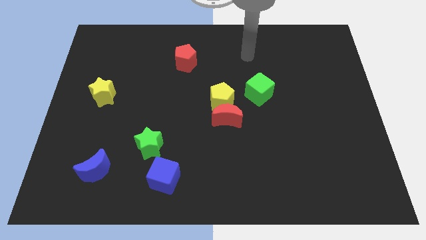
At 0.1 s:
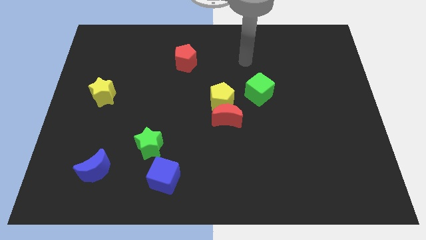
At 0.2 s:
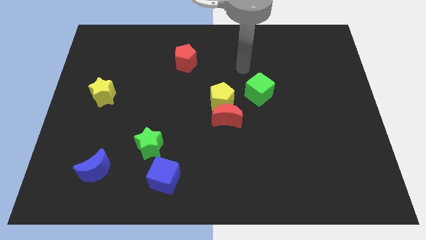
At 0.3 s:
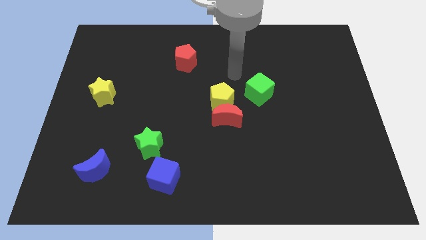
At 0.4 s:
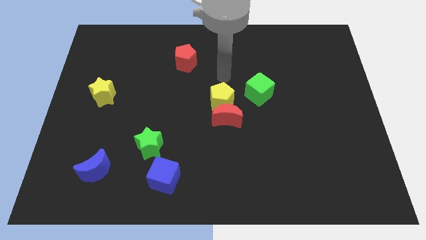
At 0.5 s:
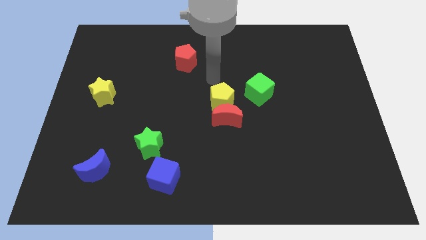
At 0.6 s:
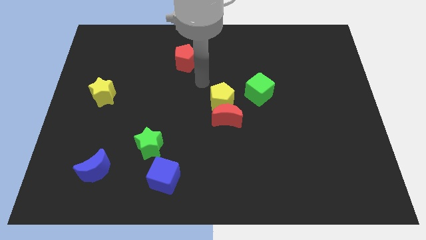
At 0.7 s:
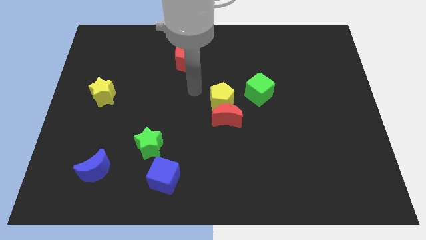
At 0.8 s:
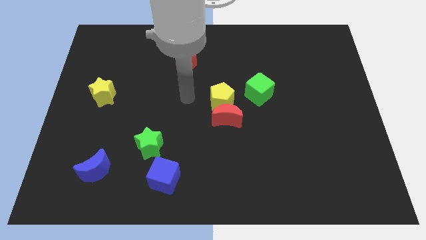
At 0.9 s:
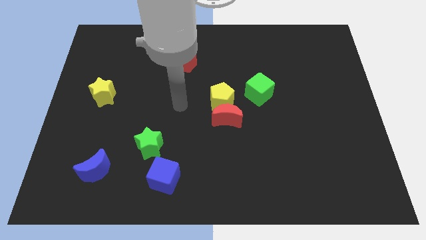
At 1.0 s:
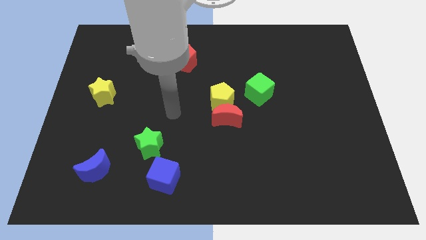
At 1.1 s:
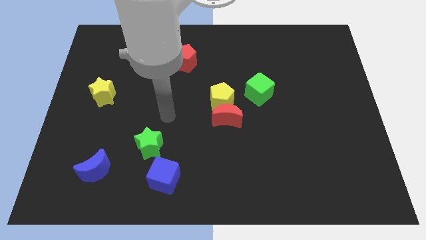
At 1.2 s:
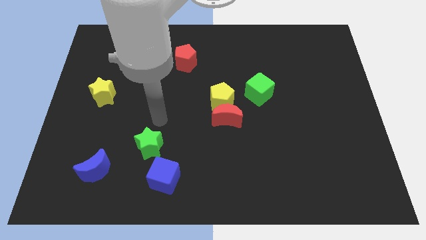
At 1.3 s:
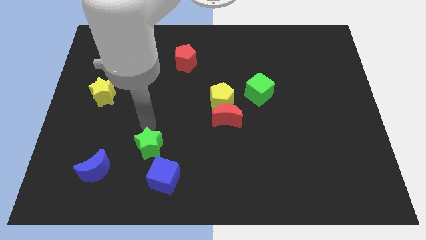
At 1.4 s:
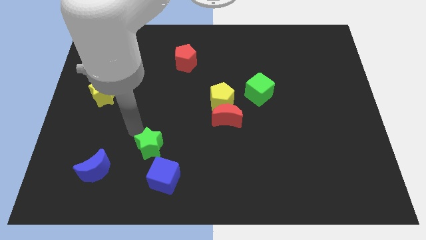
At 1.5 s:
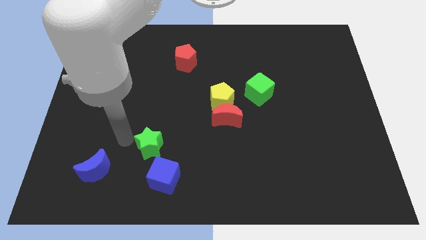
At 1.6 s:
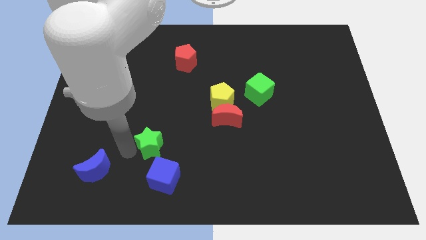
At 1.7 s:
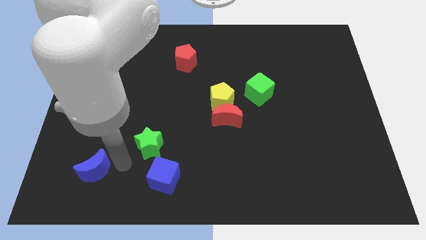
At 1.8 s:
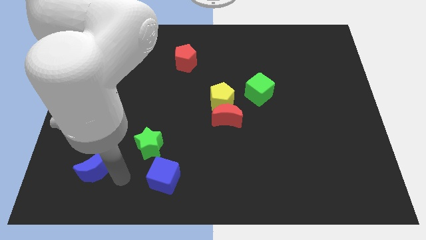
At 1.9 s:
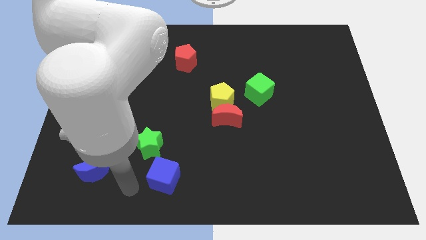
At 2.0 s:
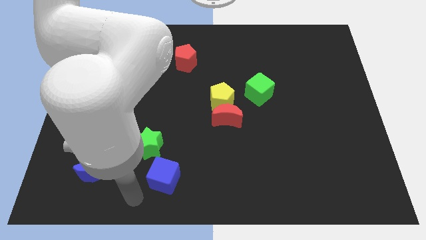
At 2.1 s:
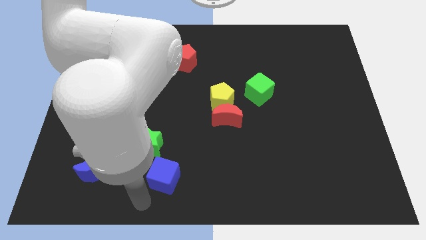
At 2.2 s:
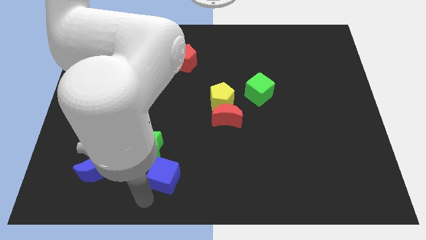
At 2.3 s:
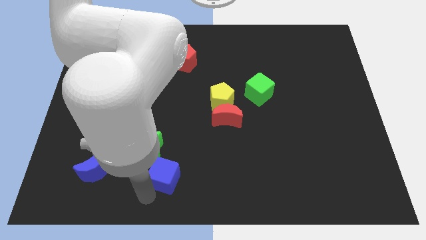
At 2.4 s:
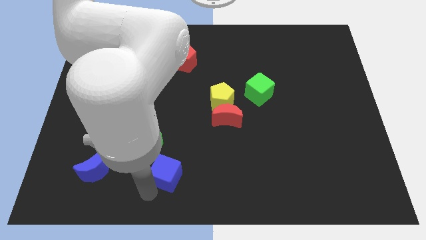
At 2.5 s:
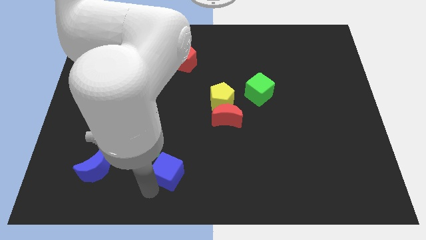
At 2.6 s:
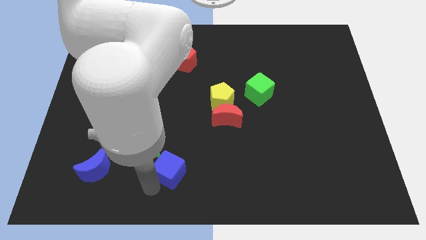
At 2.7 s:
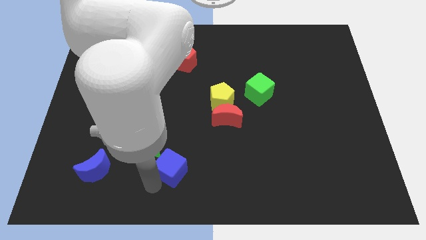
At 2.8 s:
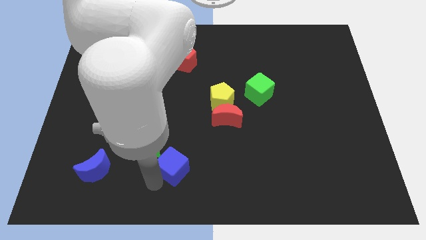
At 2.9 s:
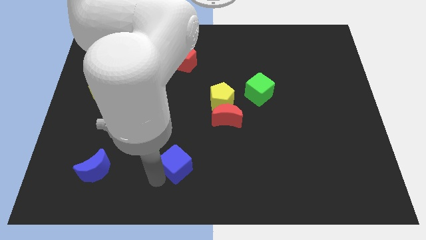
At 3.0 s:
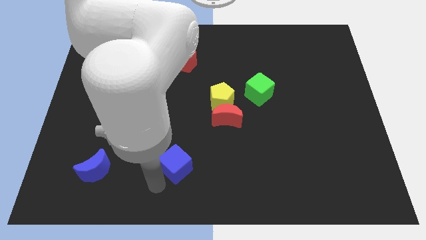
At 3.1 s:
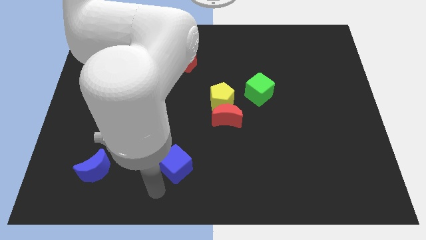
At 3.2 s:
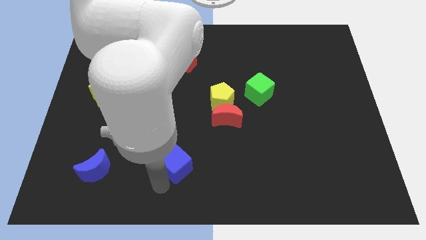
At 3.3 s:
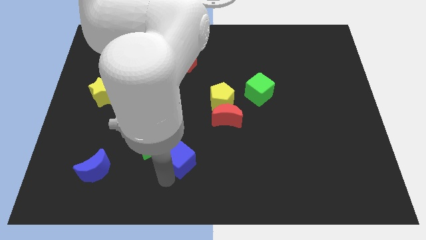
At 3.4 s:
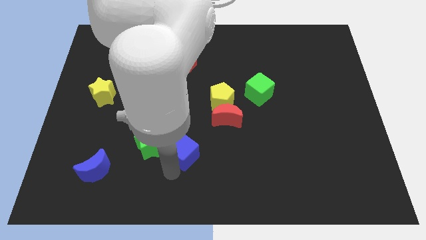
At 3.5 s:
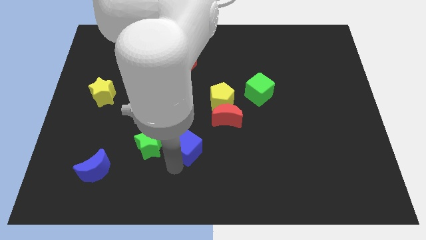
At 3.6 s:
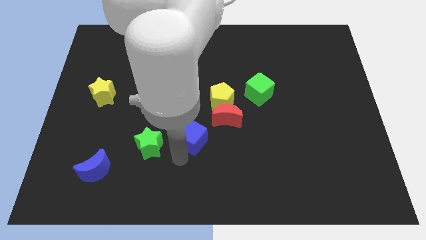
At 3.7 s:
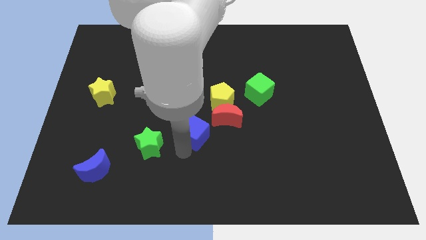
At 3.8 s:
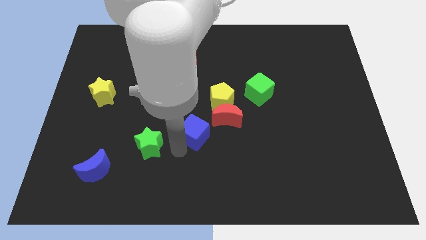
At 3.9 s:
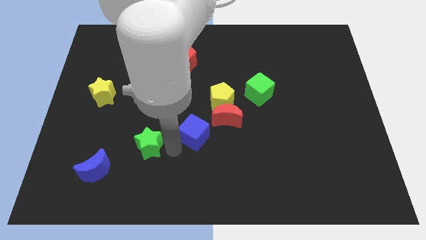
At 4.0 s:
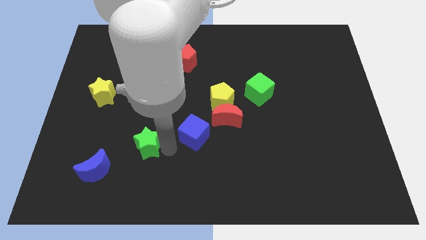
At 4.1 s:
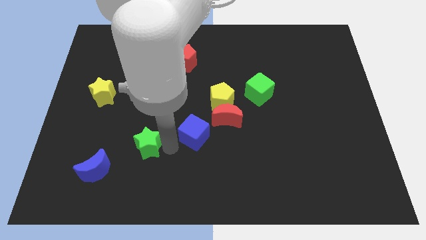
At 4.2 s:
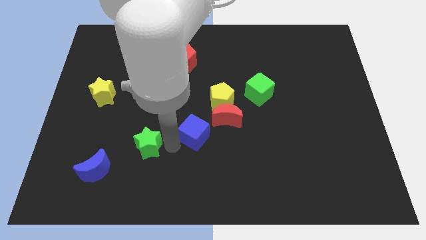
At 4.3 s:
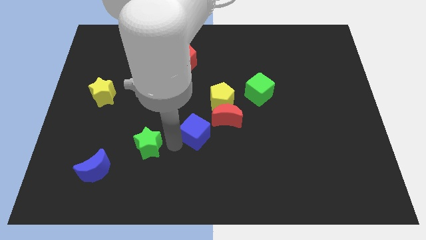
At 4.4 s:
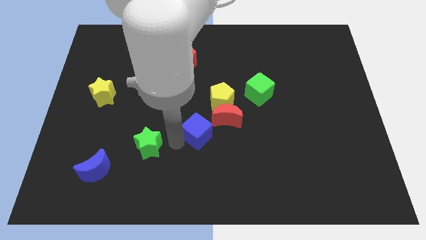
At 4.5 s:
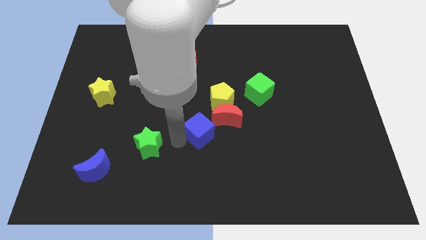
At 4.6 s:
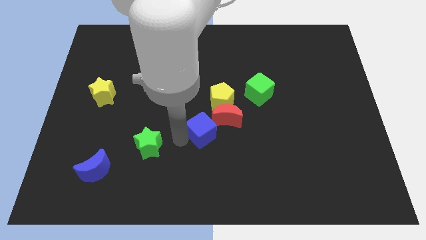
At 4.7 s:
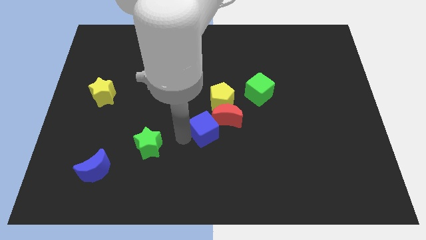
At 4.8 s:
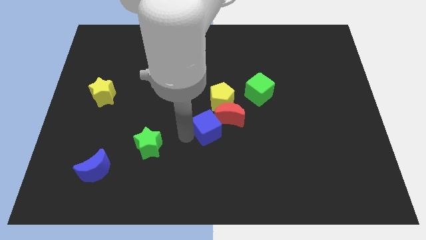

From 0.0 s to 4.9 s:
move the blue cube to the red moon

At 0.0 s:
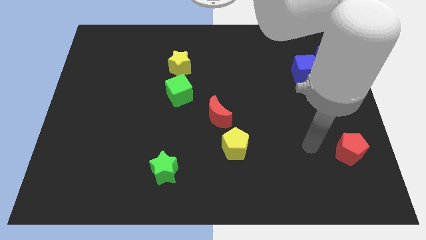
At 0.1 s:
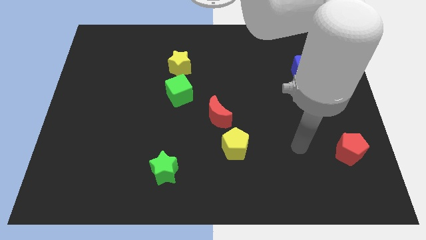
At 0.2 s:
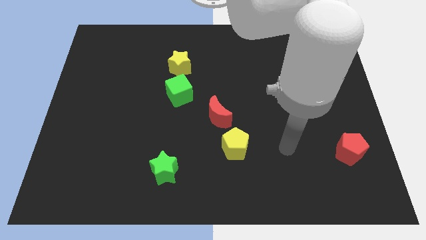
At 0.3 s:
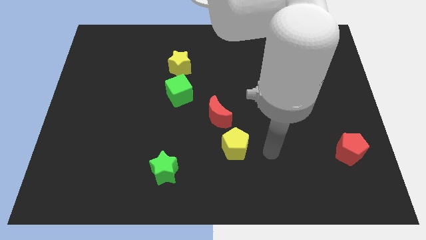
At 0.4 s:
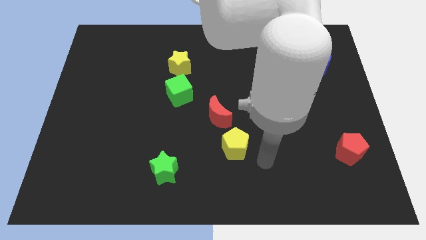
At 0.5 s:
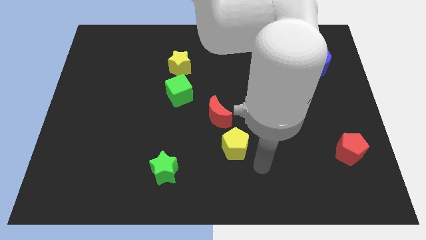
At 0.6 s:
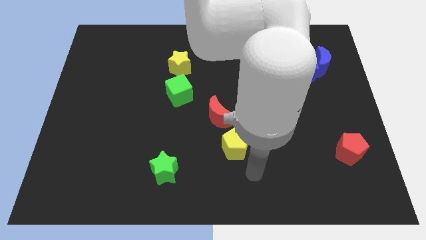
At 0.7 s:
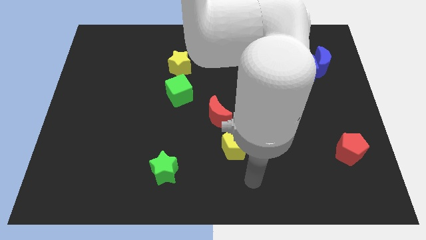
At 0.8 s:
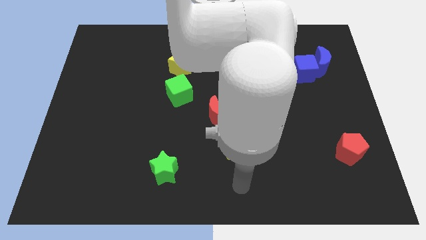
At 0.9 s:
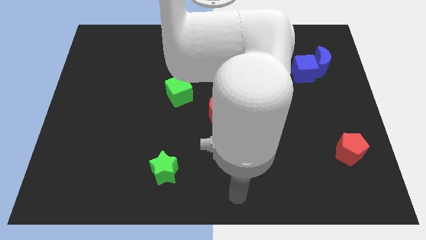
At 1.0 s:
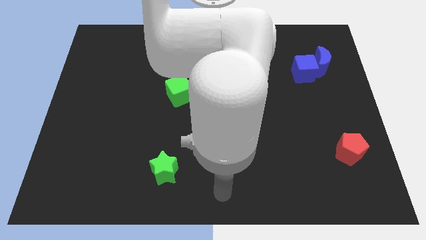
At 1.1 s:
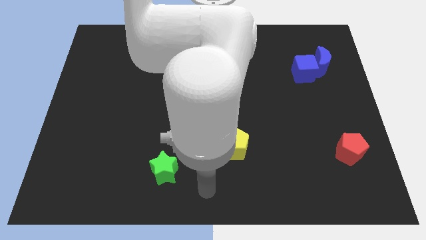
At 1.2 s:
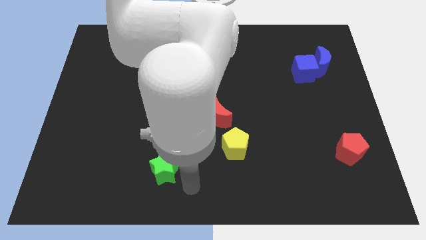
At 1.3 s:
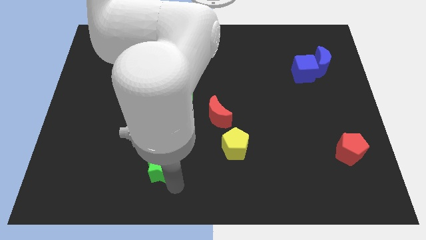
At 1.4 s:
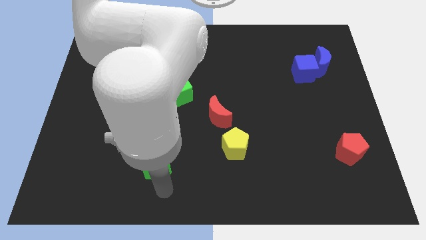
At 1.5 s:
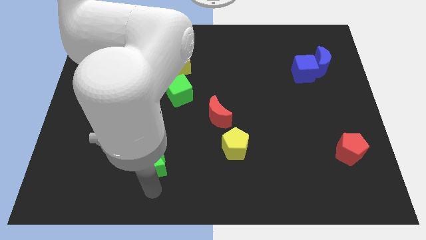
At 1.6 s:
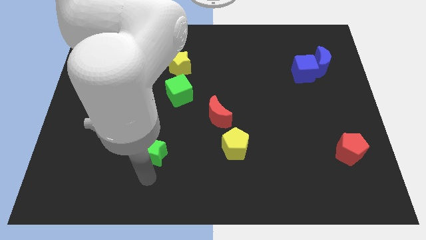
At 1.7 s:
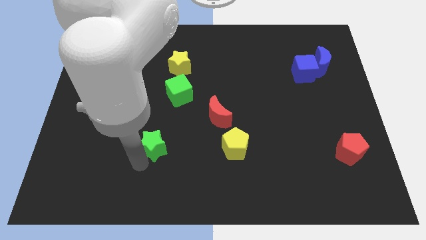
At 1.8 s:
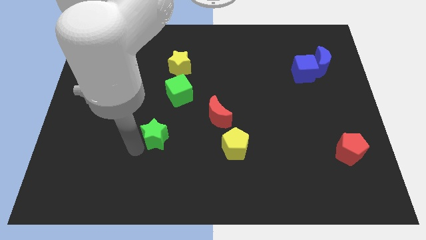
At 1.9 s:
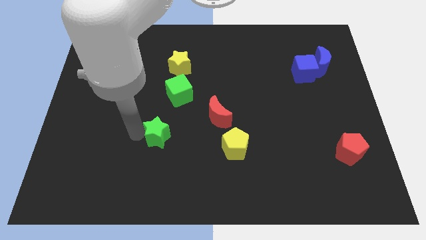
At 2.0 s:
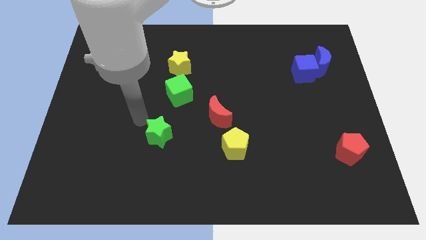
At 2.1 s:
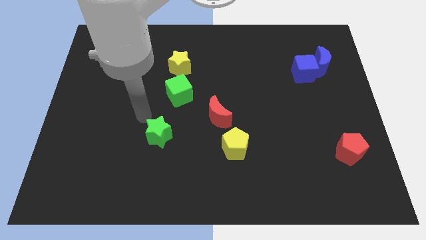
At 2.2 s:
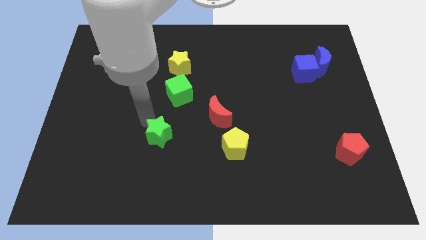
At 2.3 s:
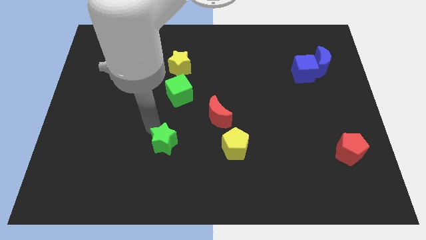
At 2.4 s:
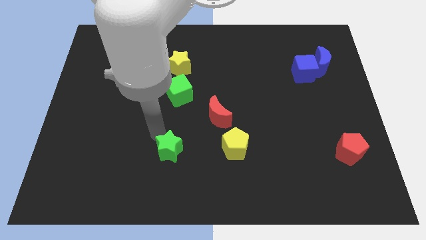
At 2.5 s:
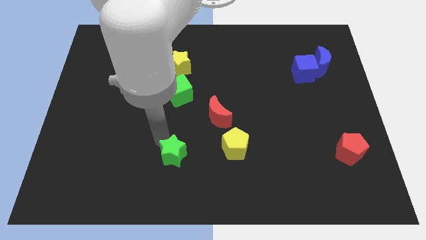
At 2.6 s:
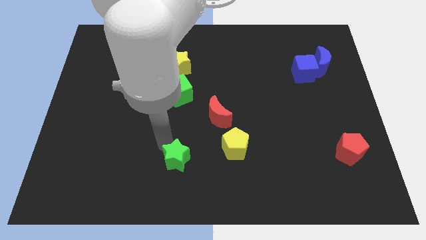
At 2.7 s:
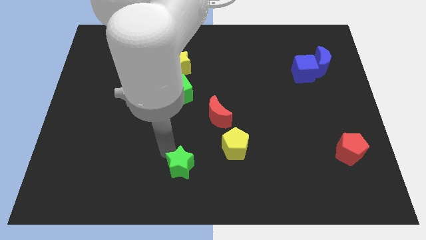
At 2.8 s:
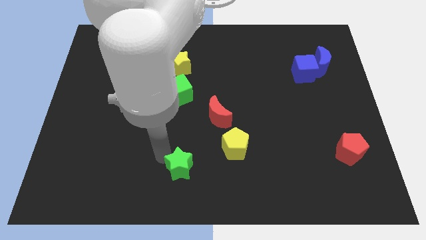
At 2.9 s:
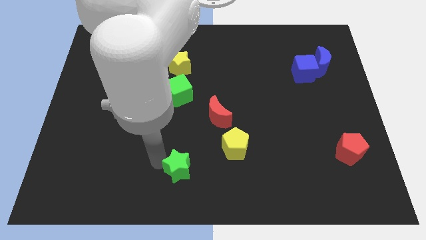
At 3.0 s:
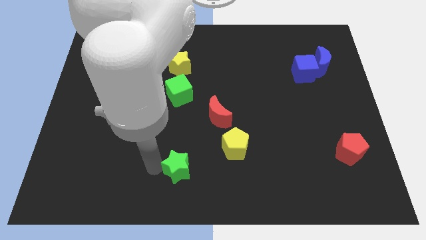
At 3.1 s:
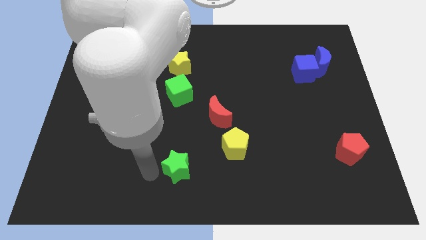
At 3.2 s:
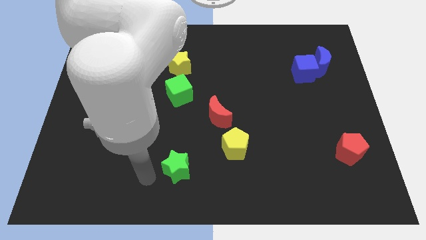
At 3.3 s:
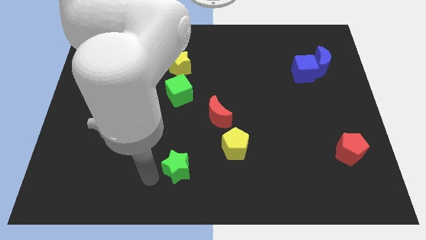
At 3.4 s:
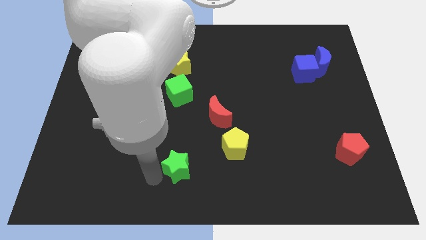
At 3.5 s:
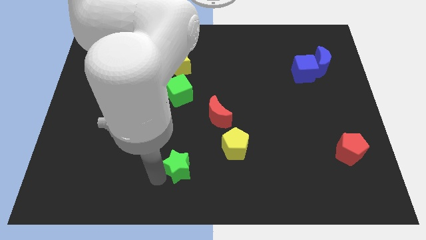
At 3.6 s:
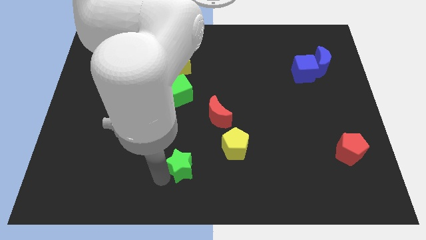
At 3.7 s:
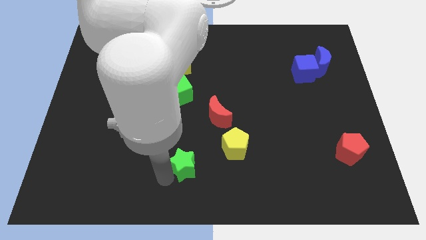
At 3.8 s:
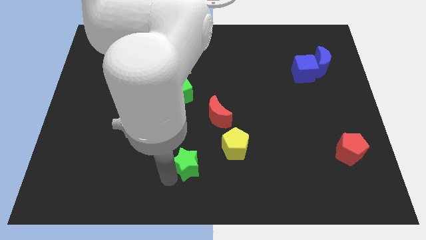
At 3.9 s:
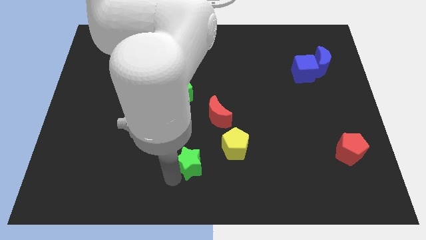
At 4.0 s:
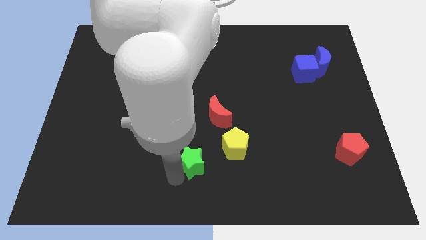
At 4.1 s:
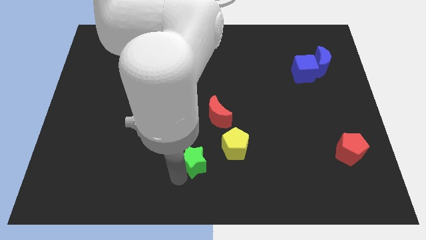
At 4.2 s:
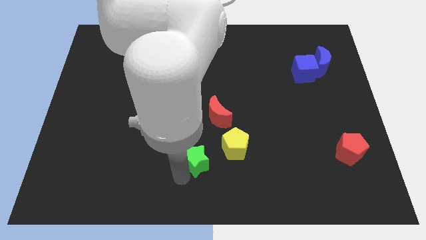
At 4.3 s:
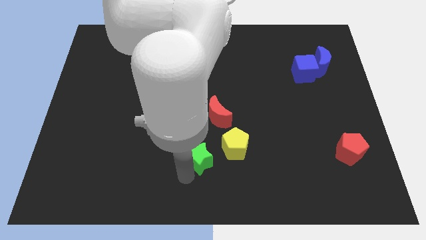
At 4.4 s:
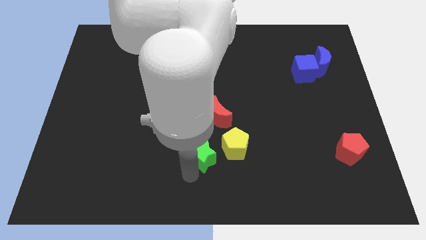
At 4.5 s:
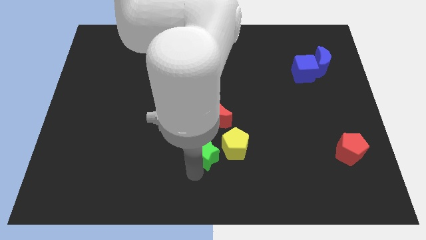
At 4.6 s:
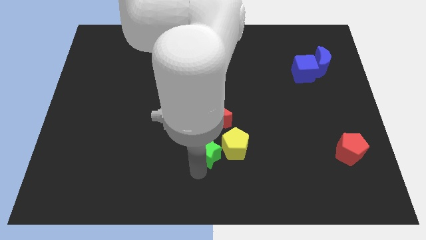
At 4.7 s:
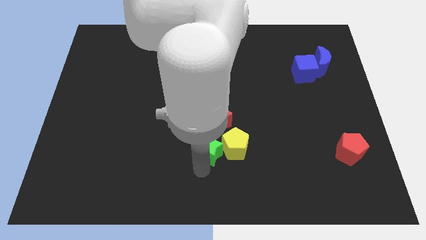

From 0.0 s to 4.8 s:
put the green star next to the yellow pentagon
